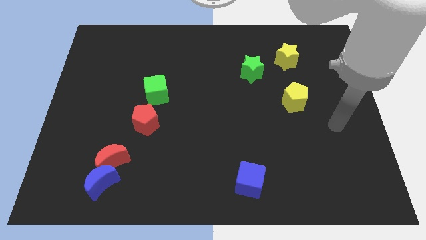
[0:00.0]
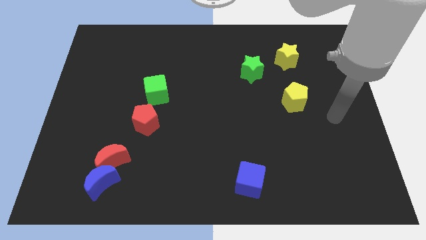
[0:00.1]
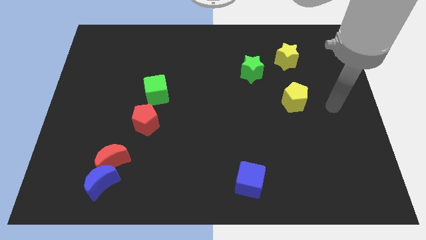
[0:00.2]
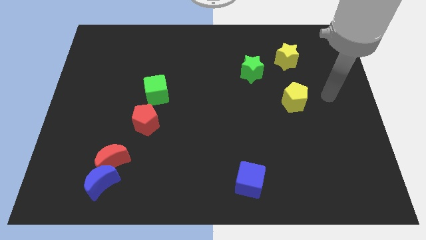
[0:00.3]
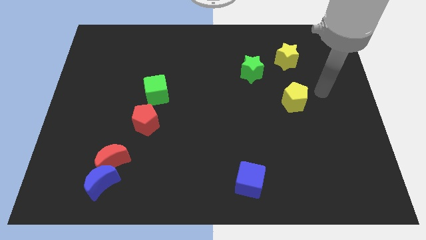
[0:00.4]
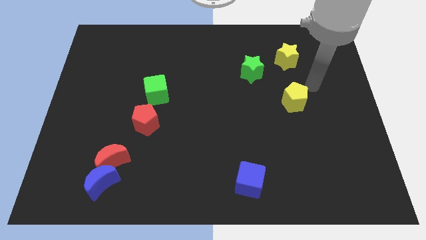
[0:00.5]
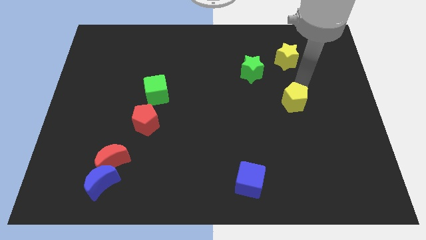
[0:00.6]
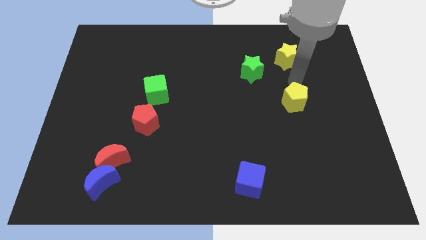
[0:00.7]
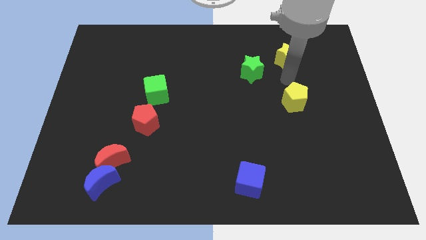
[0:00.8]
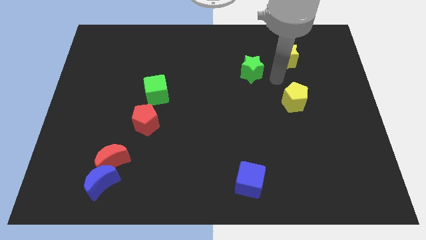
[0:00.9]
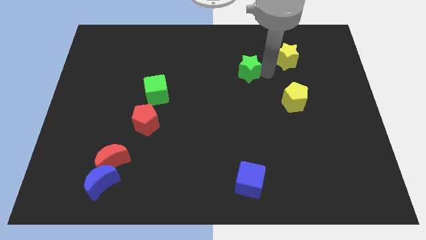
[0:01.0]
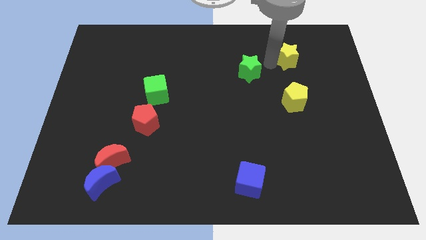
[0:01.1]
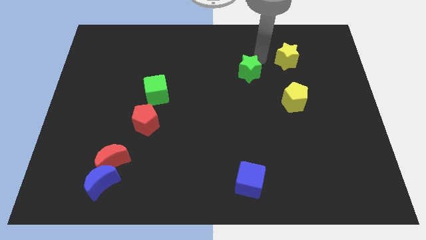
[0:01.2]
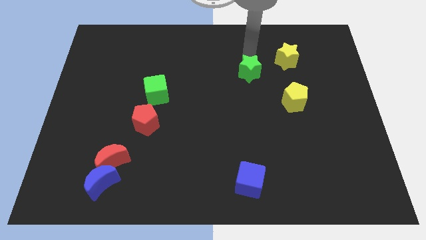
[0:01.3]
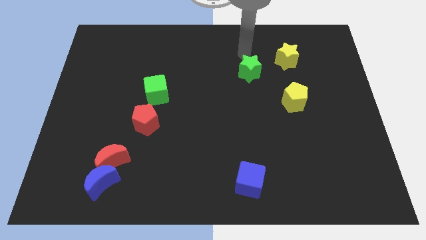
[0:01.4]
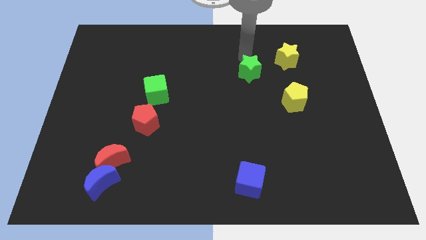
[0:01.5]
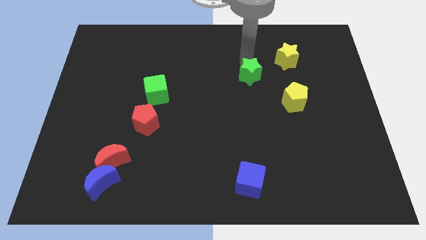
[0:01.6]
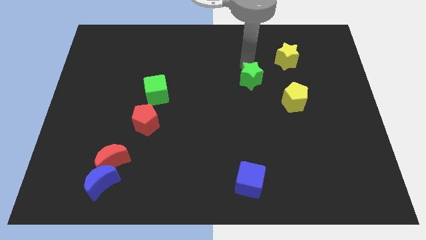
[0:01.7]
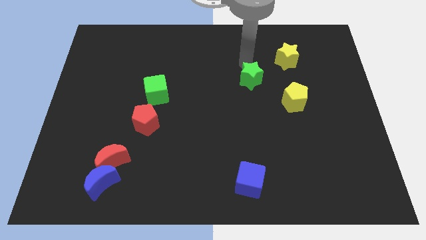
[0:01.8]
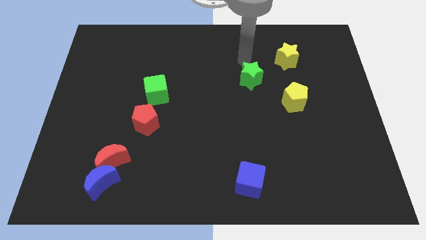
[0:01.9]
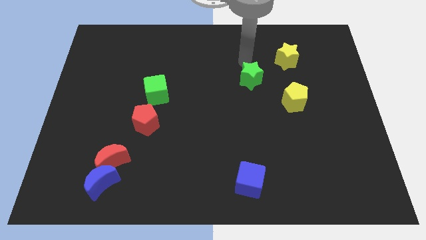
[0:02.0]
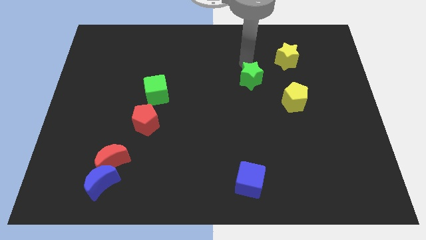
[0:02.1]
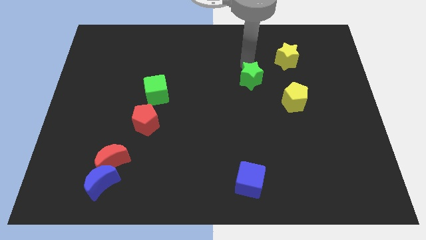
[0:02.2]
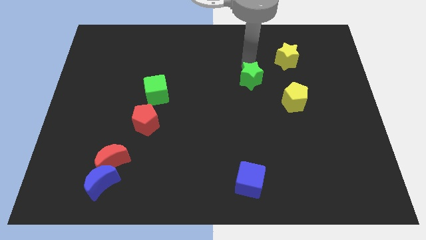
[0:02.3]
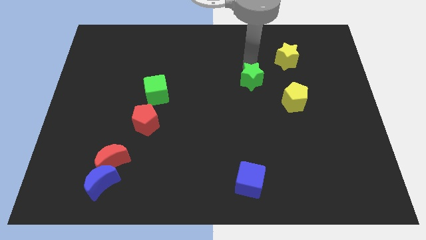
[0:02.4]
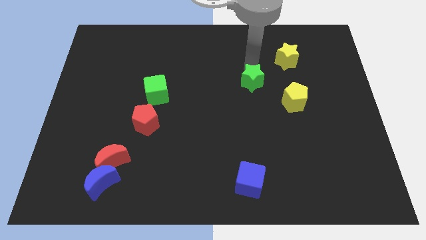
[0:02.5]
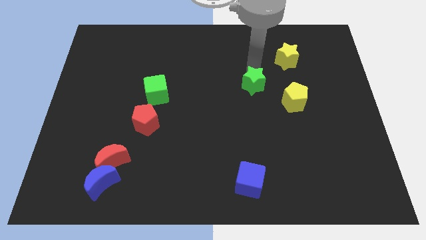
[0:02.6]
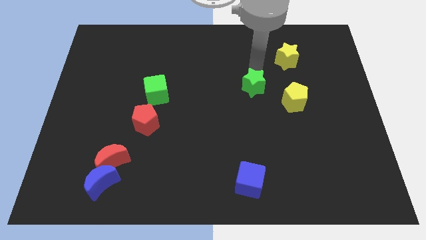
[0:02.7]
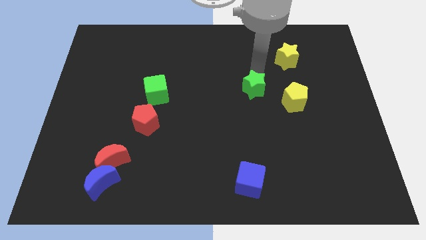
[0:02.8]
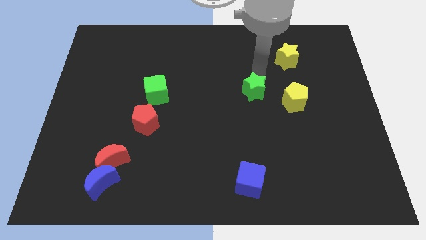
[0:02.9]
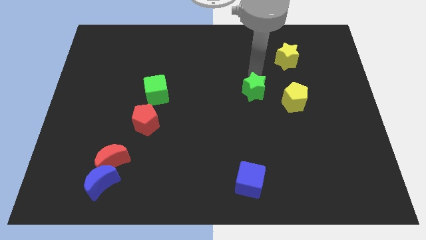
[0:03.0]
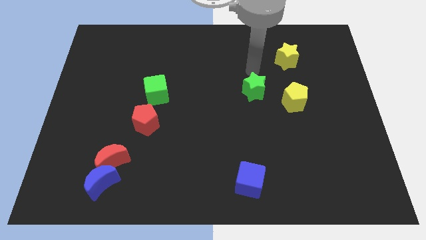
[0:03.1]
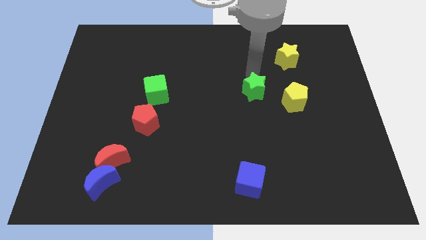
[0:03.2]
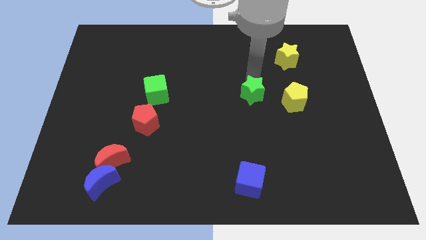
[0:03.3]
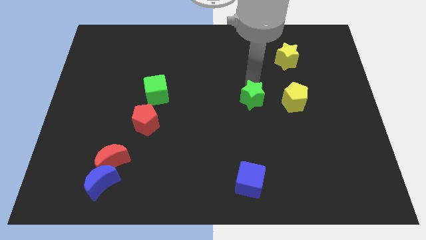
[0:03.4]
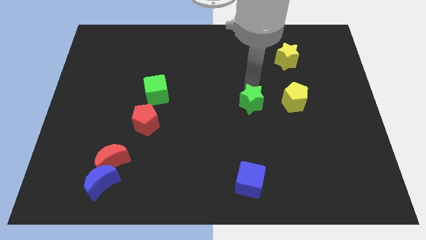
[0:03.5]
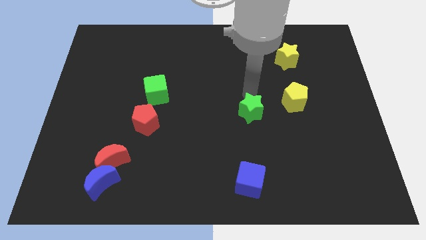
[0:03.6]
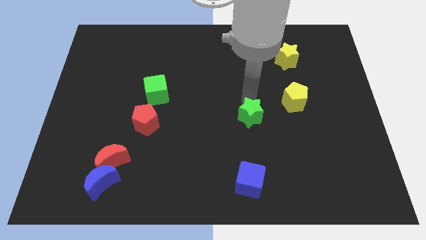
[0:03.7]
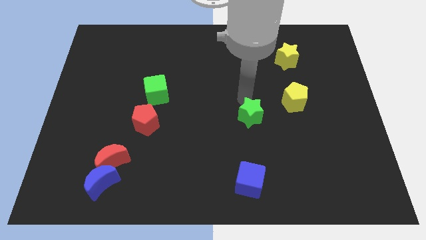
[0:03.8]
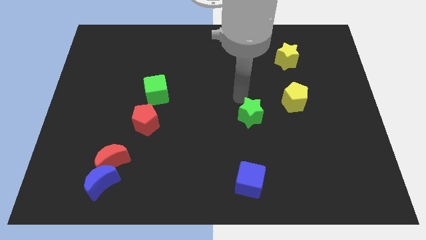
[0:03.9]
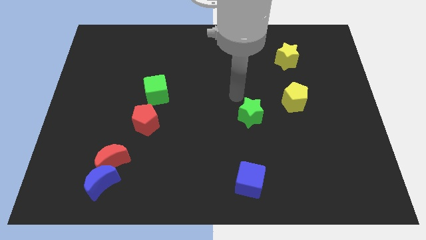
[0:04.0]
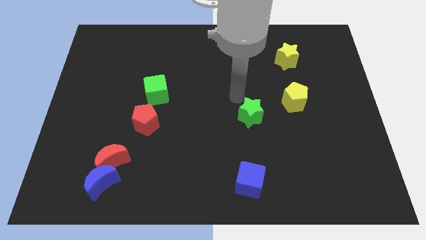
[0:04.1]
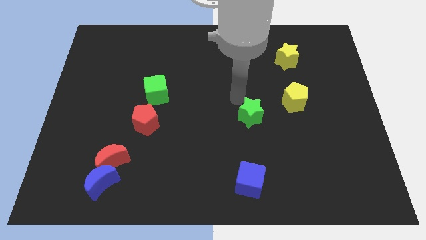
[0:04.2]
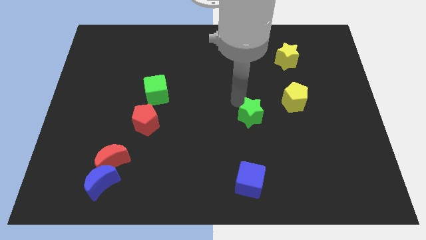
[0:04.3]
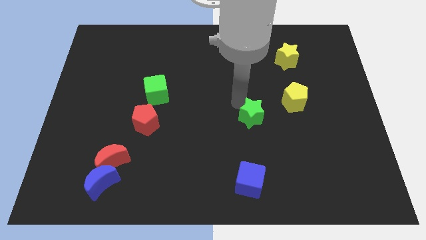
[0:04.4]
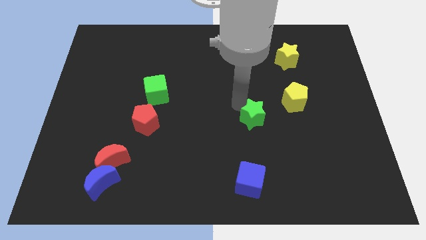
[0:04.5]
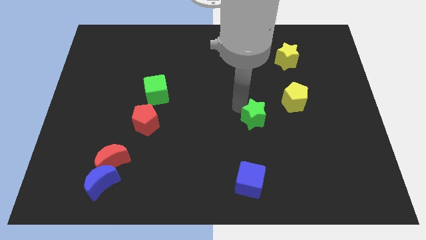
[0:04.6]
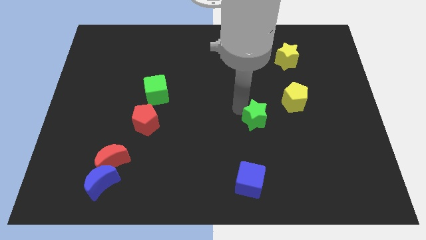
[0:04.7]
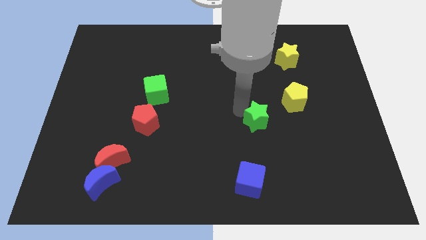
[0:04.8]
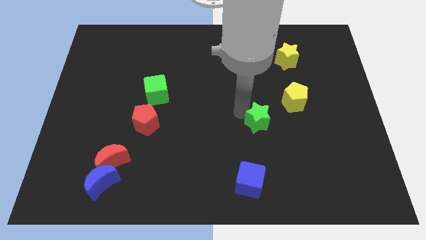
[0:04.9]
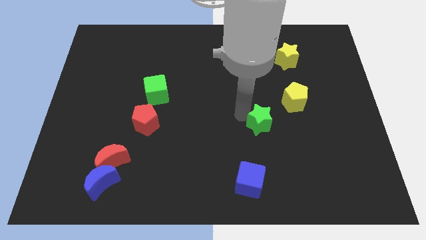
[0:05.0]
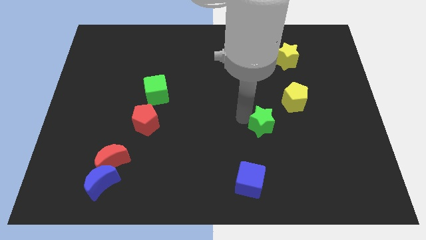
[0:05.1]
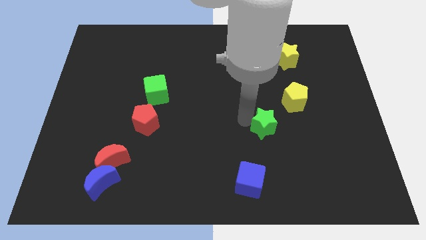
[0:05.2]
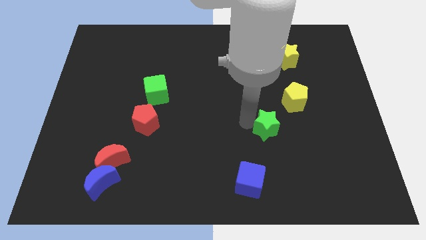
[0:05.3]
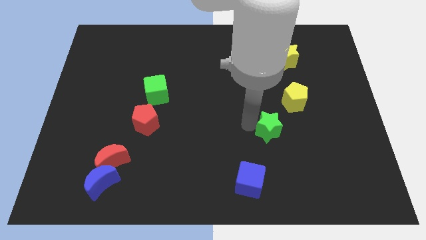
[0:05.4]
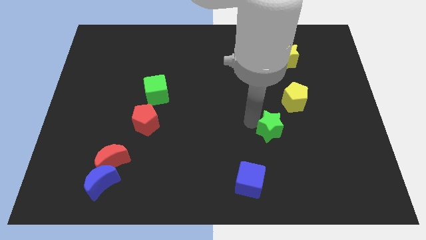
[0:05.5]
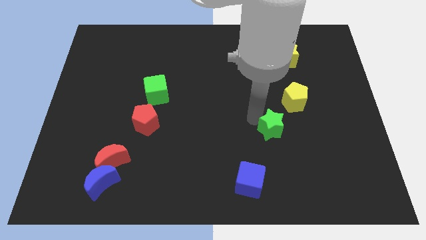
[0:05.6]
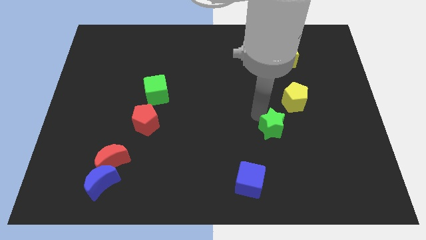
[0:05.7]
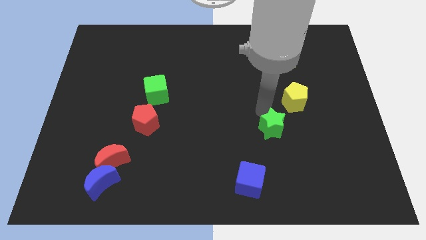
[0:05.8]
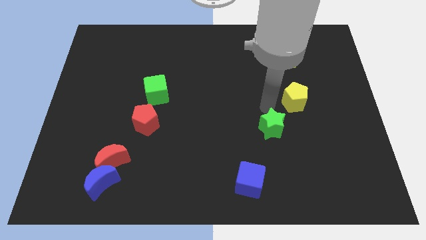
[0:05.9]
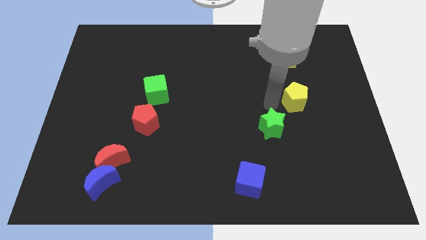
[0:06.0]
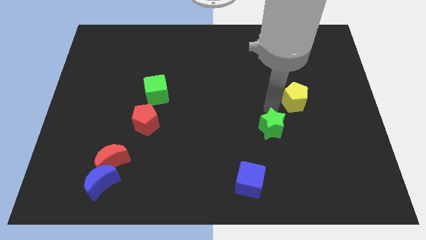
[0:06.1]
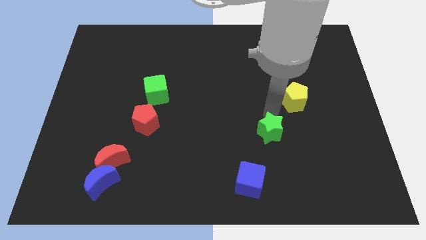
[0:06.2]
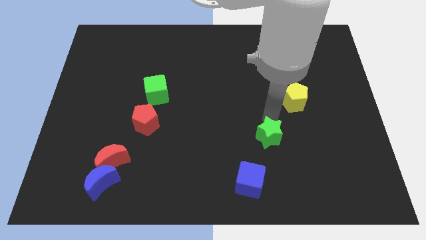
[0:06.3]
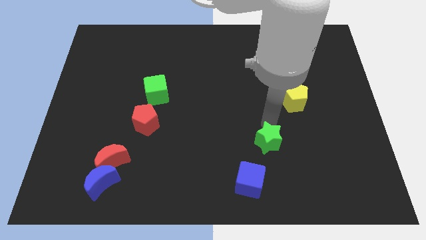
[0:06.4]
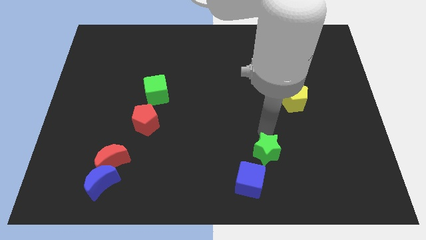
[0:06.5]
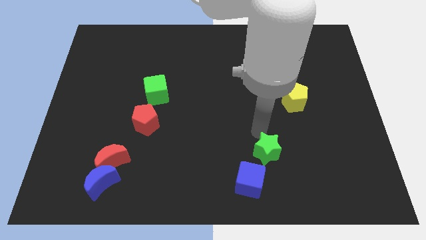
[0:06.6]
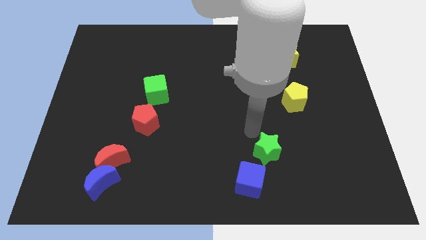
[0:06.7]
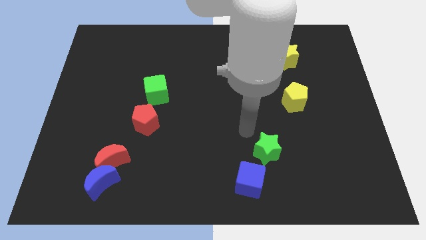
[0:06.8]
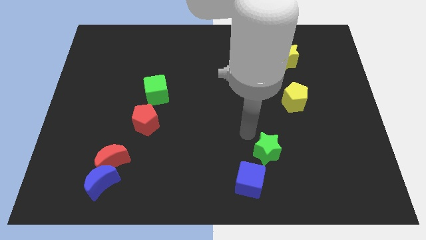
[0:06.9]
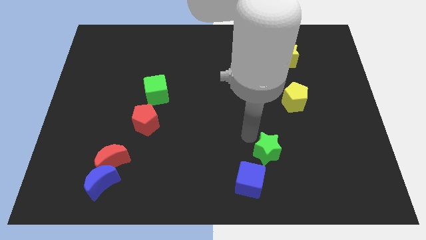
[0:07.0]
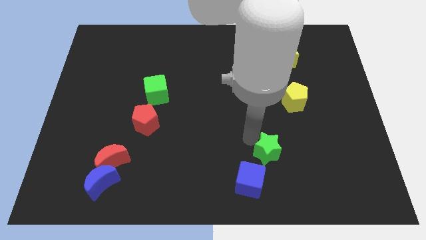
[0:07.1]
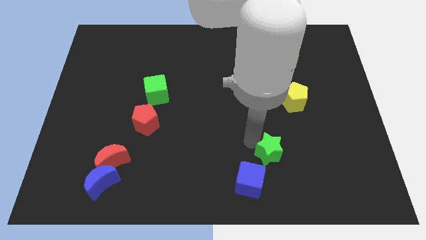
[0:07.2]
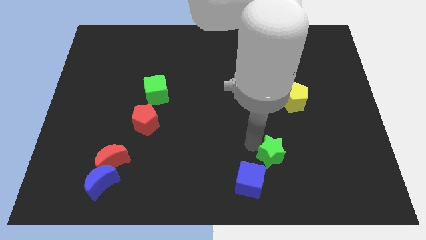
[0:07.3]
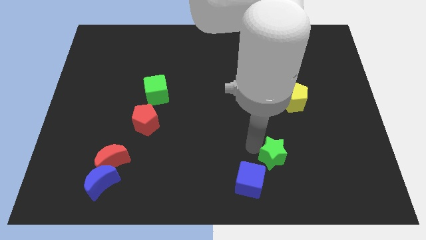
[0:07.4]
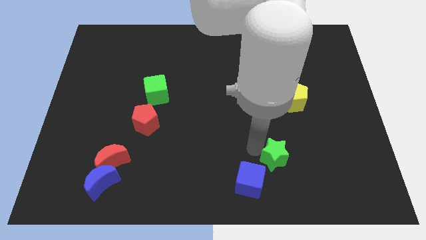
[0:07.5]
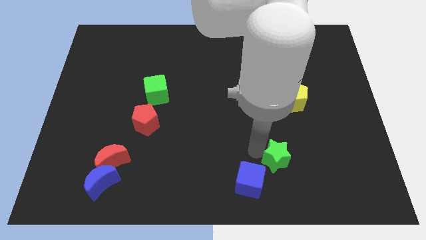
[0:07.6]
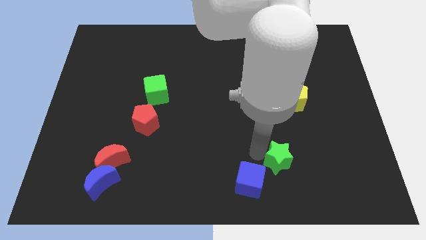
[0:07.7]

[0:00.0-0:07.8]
push the green star right of the blue cube
